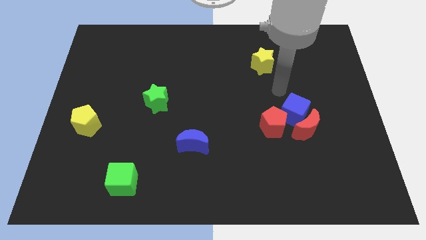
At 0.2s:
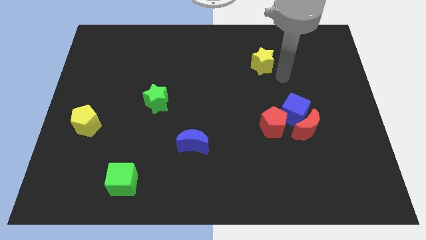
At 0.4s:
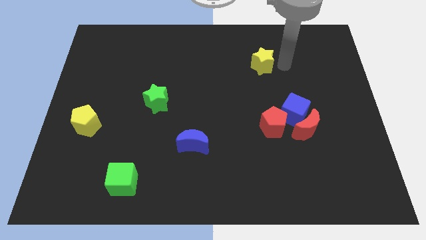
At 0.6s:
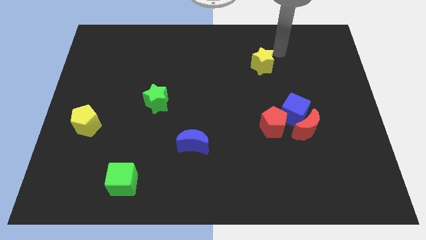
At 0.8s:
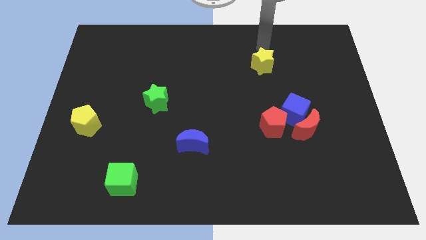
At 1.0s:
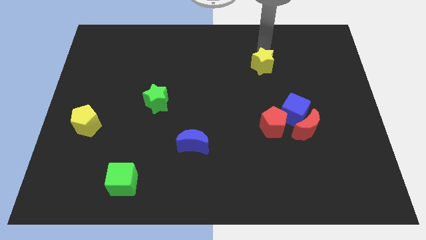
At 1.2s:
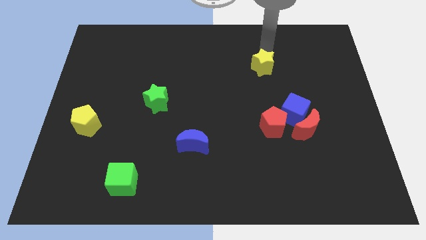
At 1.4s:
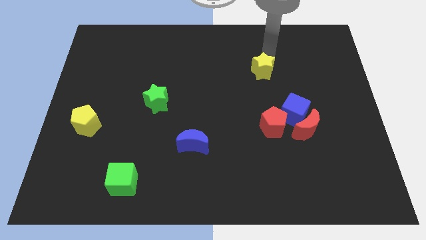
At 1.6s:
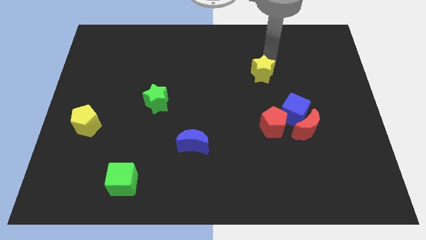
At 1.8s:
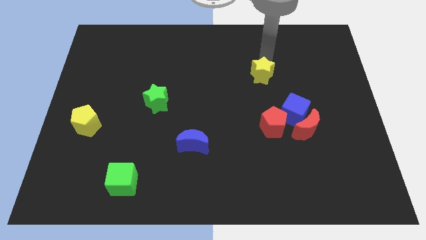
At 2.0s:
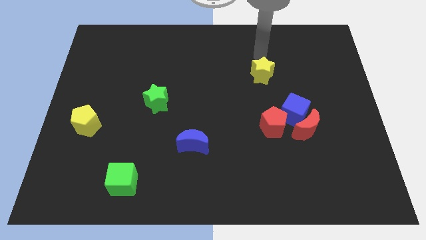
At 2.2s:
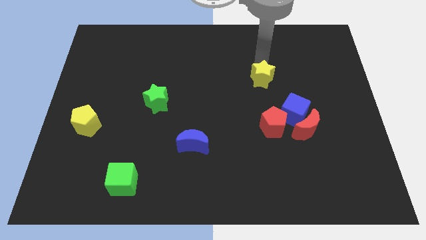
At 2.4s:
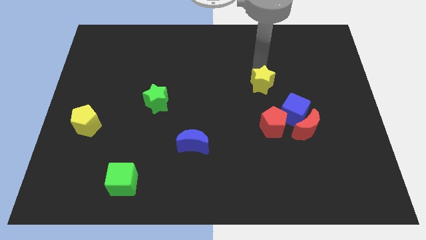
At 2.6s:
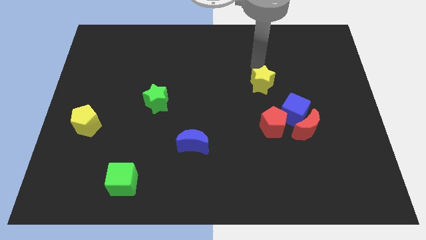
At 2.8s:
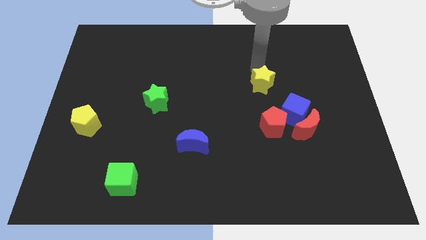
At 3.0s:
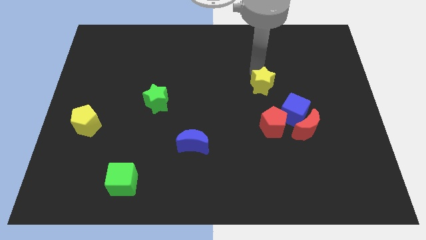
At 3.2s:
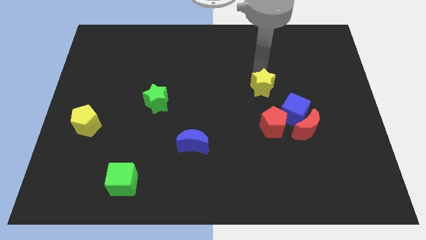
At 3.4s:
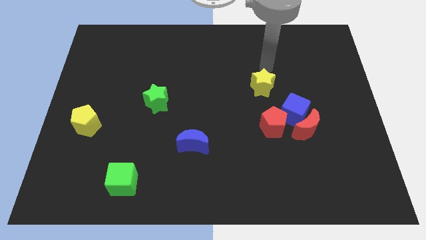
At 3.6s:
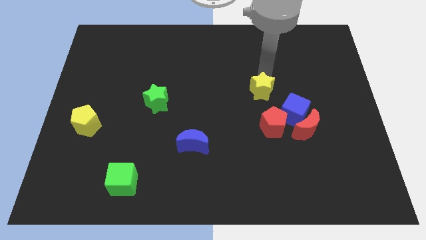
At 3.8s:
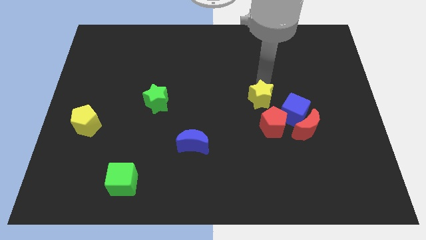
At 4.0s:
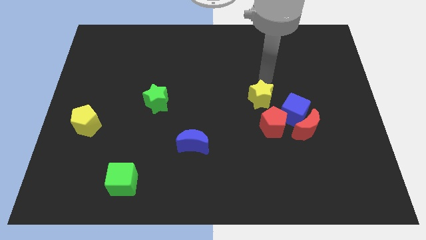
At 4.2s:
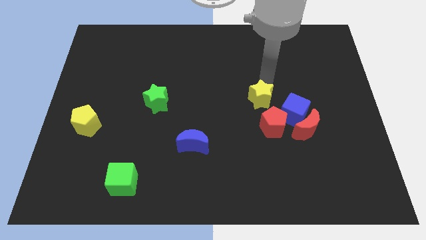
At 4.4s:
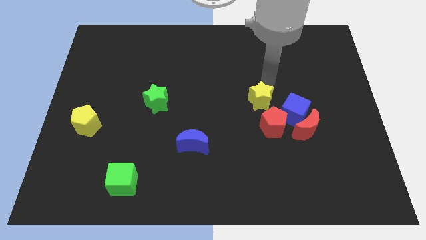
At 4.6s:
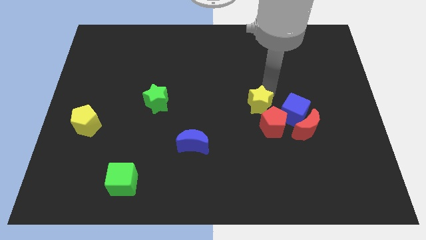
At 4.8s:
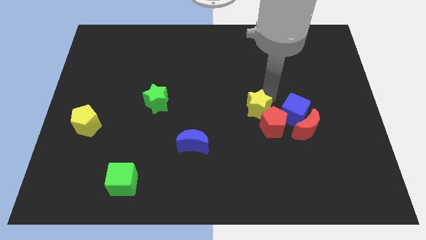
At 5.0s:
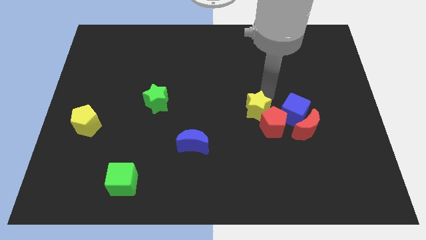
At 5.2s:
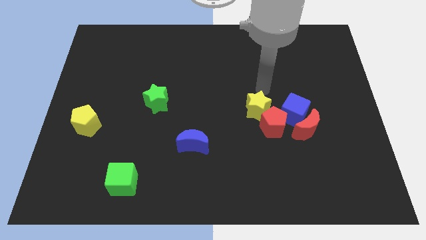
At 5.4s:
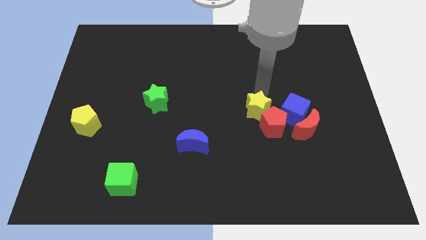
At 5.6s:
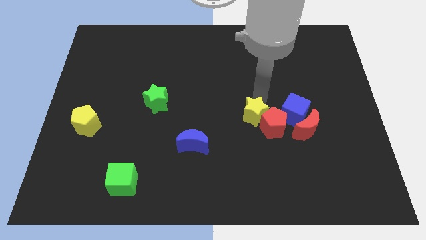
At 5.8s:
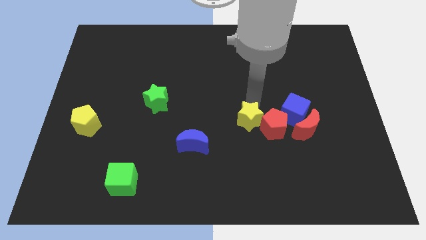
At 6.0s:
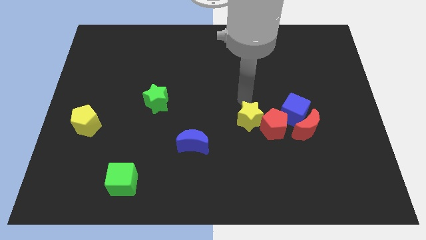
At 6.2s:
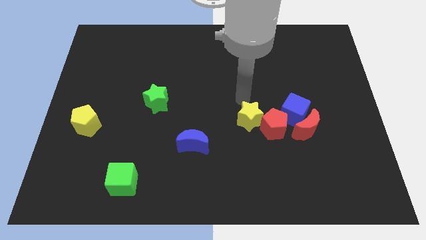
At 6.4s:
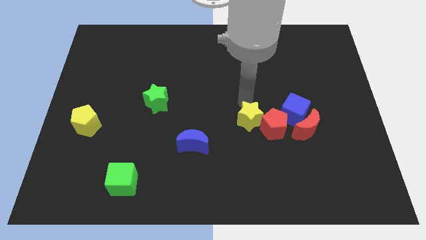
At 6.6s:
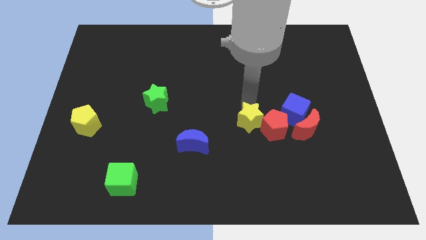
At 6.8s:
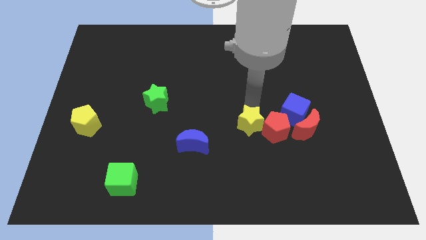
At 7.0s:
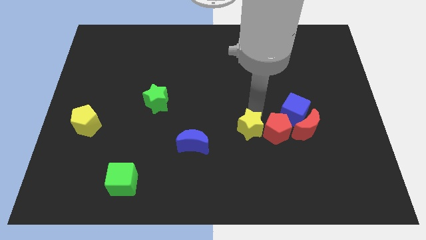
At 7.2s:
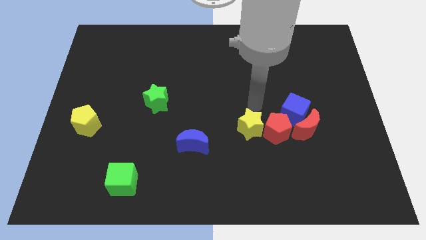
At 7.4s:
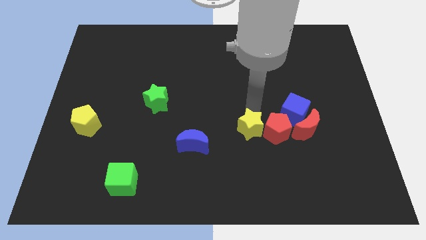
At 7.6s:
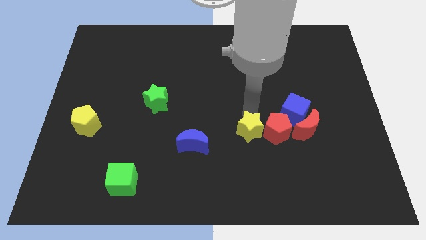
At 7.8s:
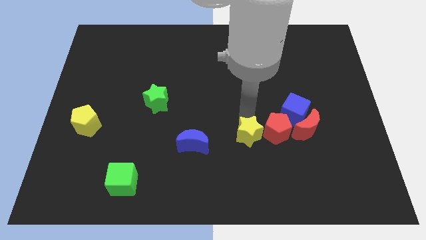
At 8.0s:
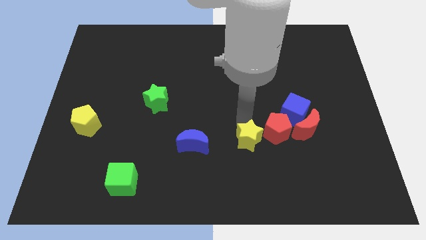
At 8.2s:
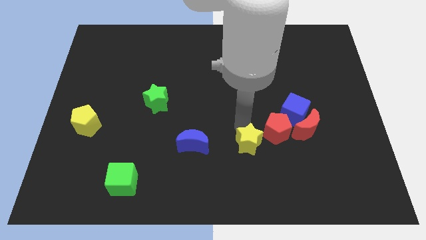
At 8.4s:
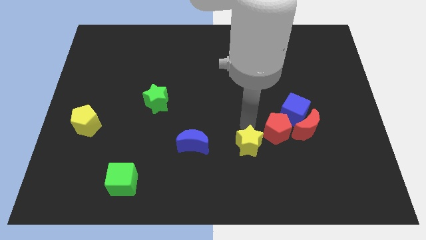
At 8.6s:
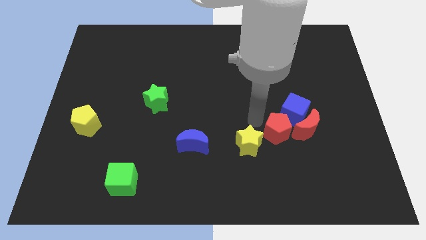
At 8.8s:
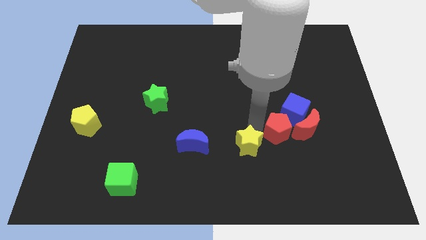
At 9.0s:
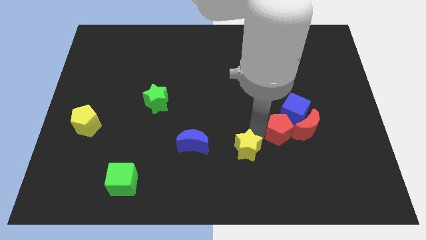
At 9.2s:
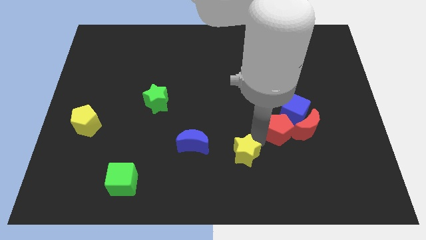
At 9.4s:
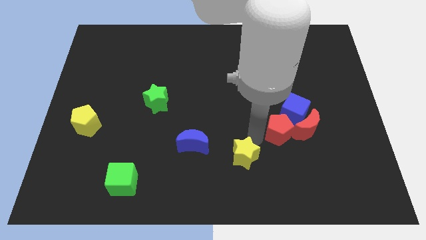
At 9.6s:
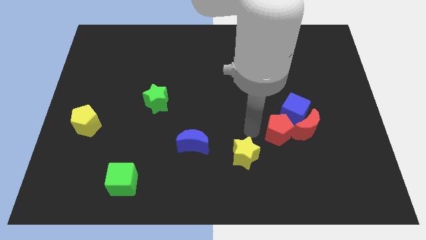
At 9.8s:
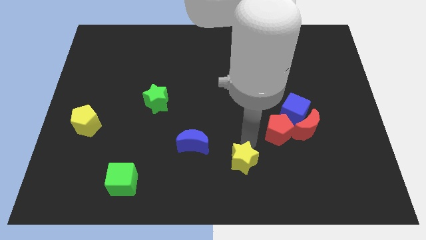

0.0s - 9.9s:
put the yellow star to the bottom side

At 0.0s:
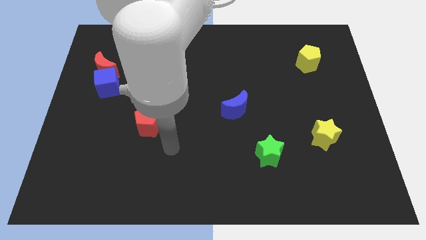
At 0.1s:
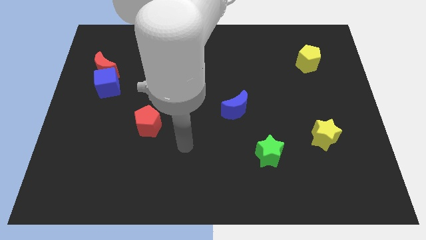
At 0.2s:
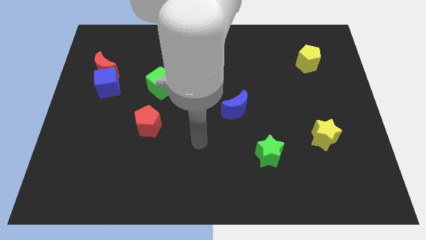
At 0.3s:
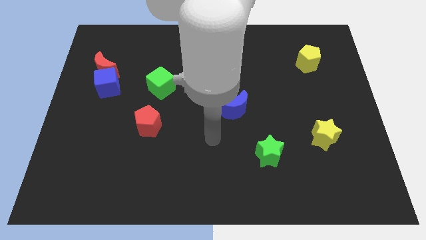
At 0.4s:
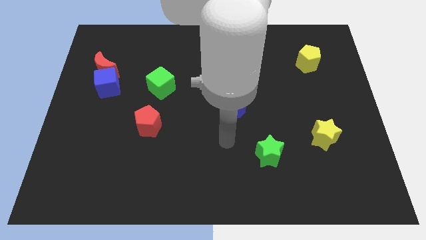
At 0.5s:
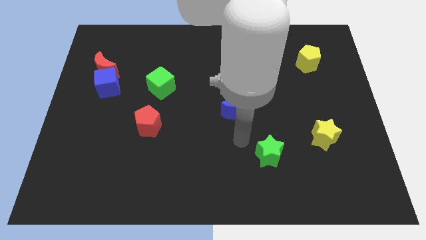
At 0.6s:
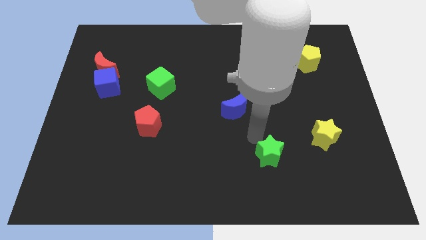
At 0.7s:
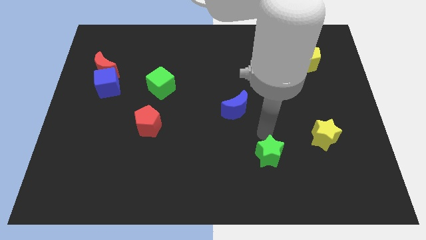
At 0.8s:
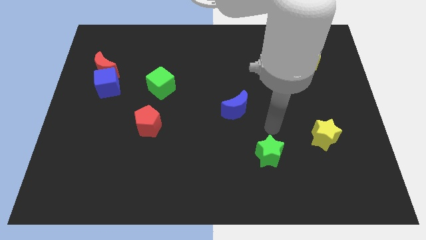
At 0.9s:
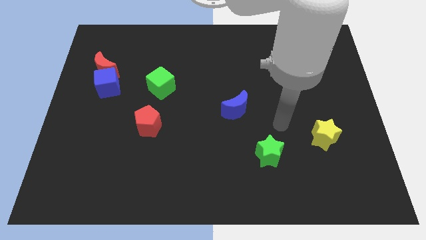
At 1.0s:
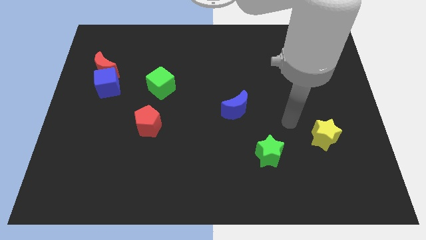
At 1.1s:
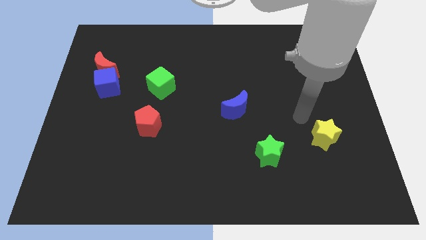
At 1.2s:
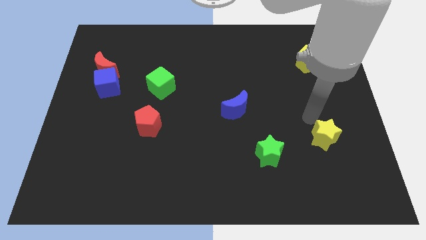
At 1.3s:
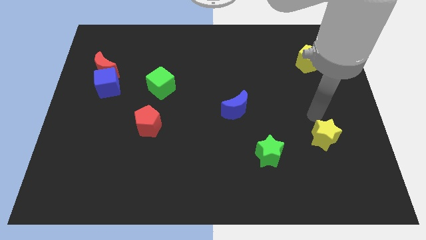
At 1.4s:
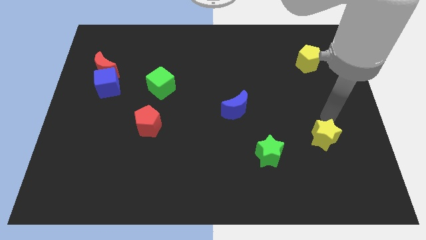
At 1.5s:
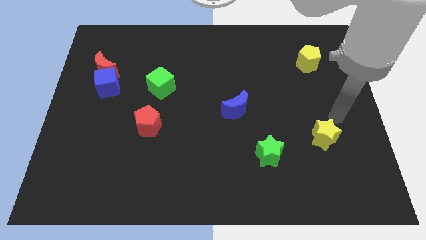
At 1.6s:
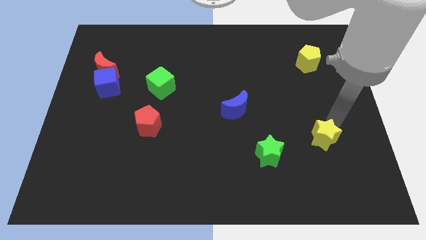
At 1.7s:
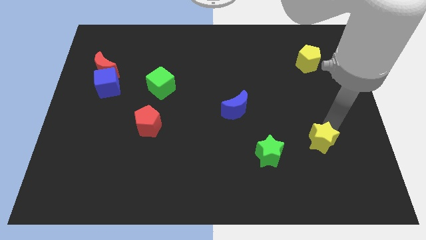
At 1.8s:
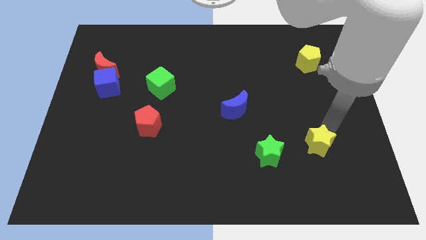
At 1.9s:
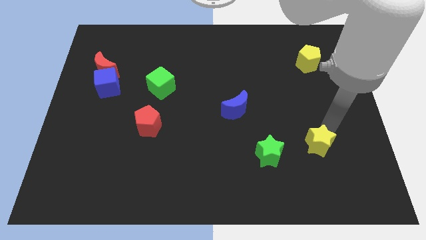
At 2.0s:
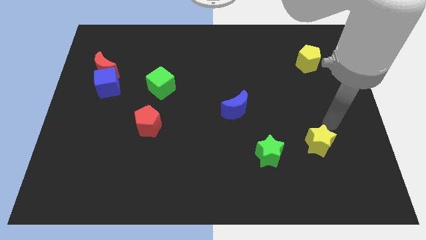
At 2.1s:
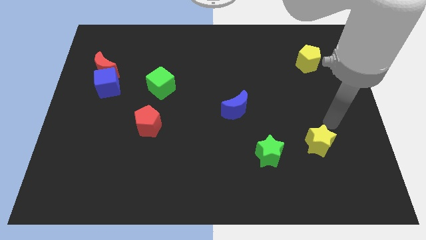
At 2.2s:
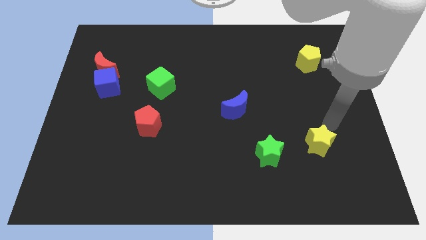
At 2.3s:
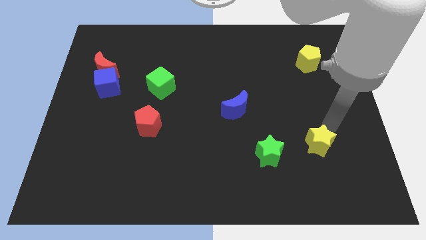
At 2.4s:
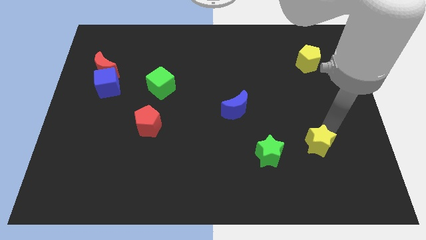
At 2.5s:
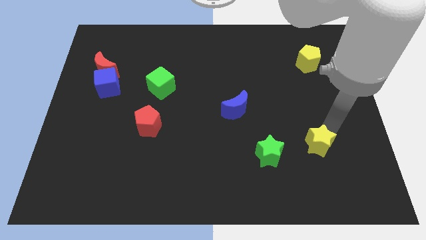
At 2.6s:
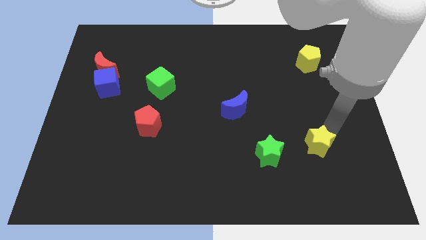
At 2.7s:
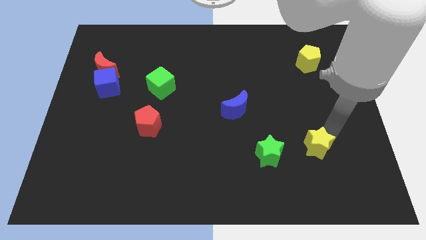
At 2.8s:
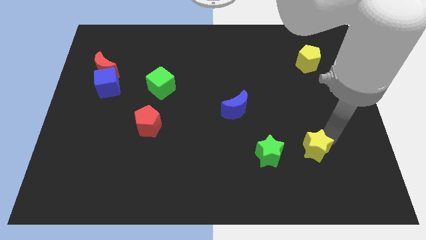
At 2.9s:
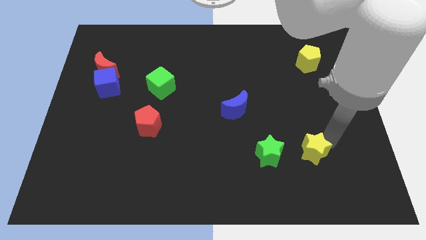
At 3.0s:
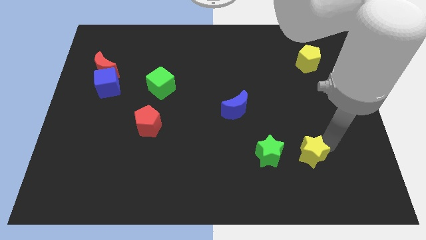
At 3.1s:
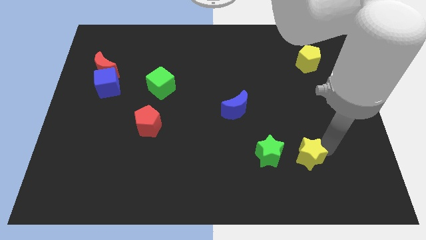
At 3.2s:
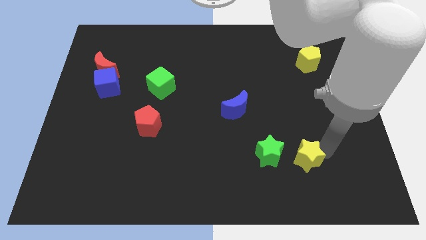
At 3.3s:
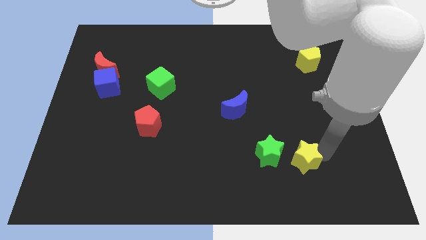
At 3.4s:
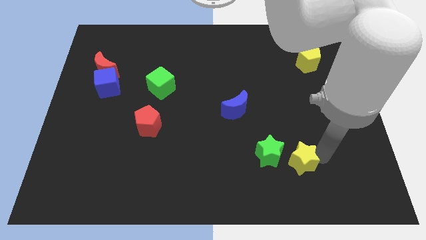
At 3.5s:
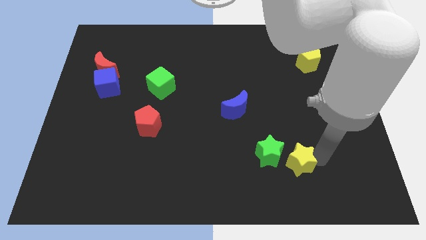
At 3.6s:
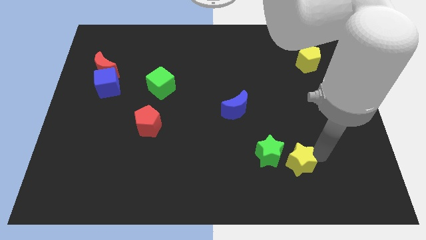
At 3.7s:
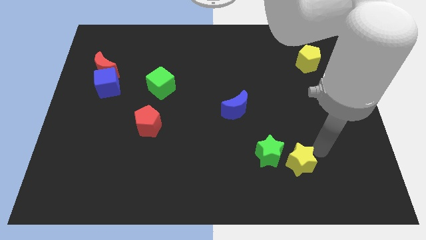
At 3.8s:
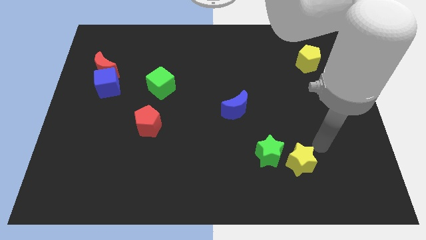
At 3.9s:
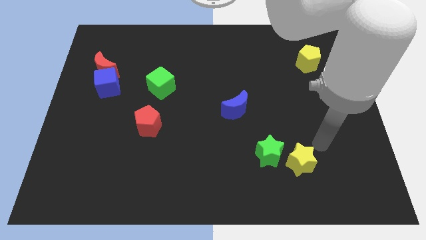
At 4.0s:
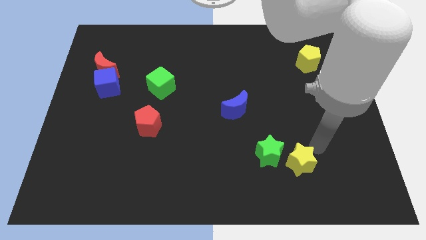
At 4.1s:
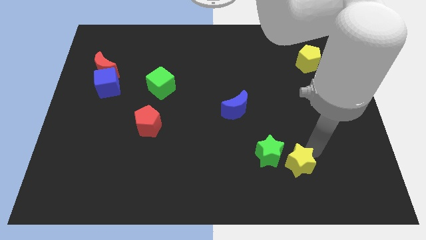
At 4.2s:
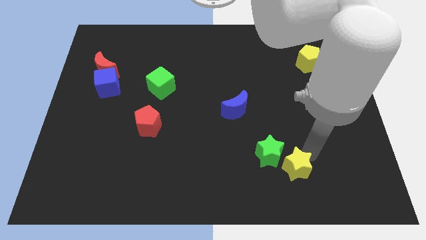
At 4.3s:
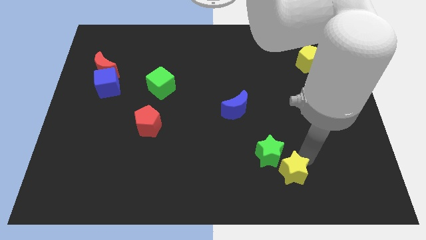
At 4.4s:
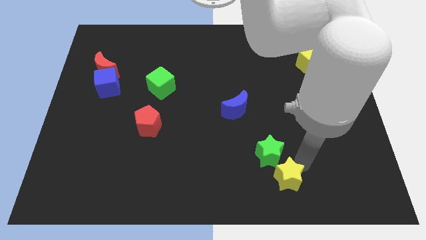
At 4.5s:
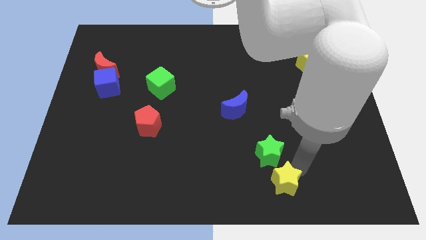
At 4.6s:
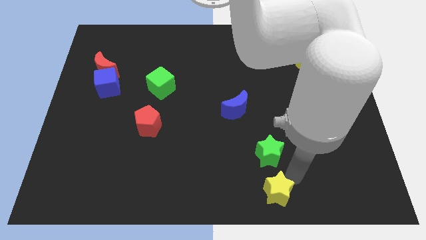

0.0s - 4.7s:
put the yellow star to the bottom
